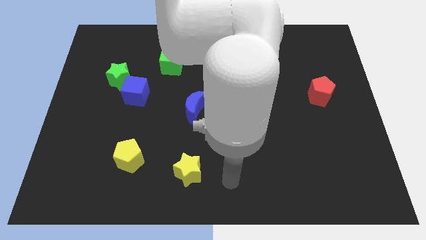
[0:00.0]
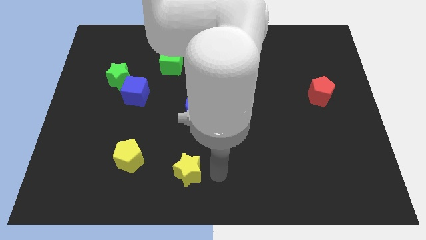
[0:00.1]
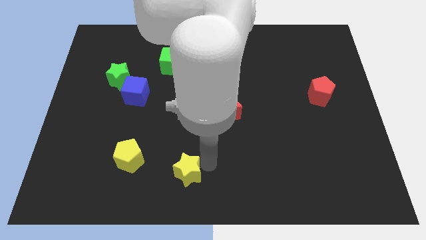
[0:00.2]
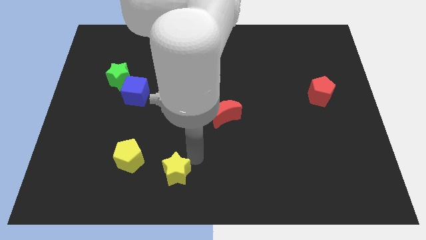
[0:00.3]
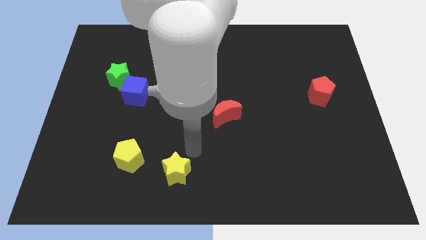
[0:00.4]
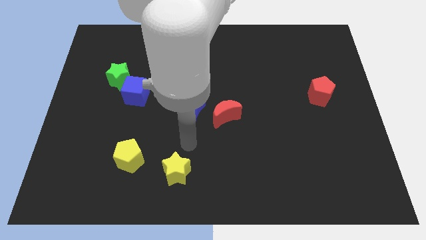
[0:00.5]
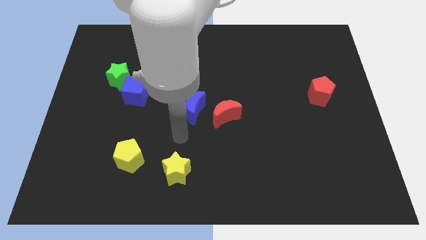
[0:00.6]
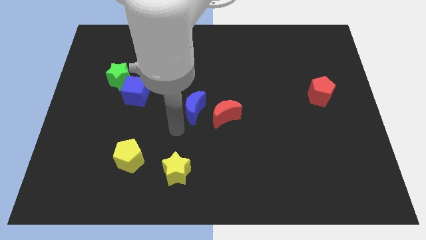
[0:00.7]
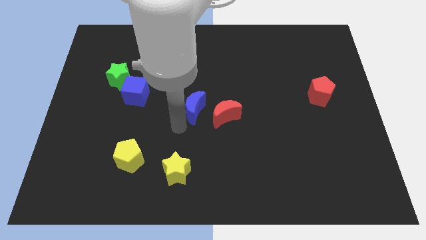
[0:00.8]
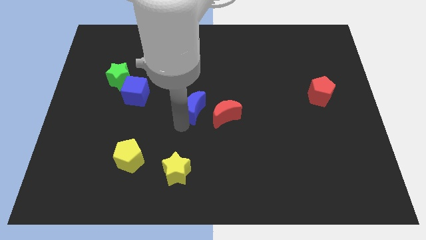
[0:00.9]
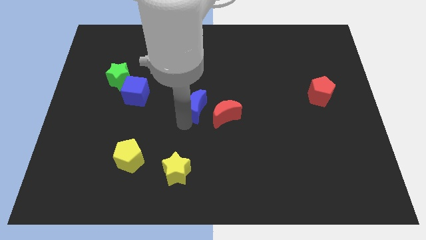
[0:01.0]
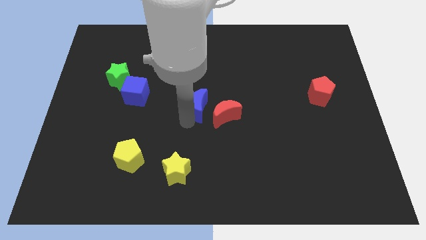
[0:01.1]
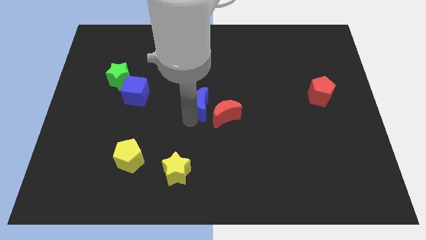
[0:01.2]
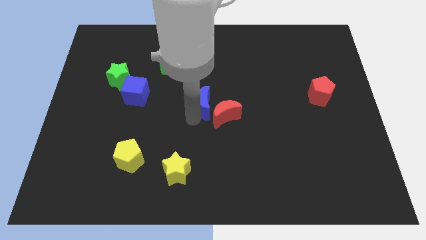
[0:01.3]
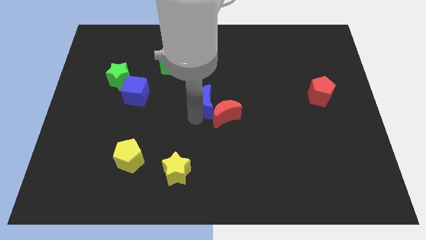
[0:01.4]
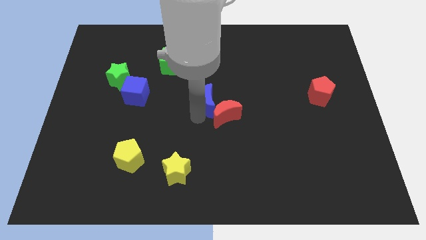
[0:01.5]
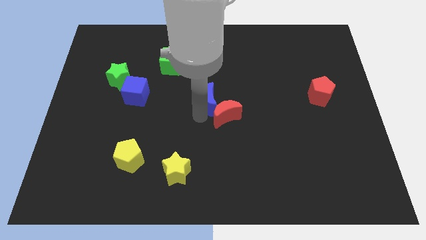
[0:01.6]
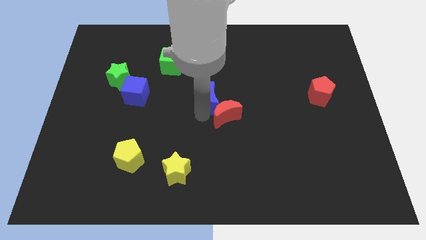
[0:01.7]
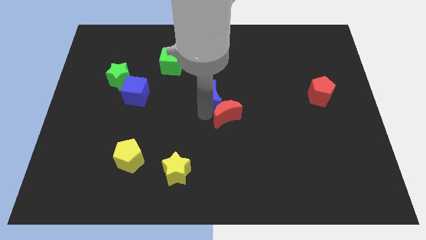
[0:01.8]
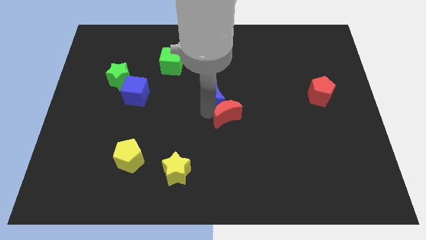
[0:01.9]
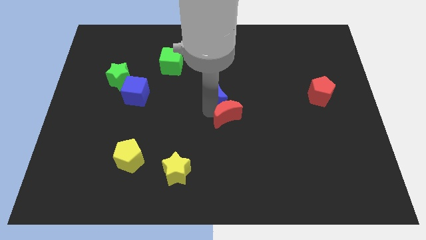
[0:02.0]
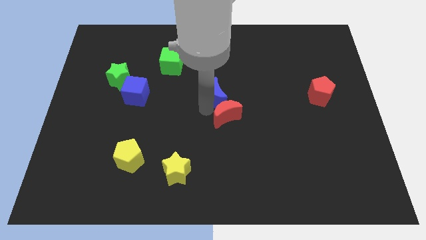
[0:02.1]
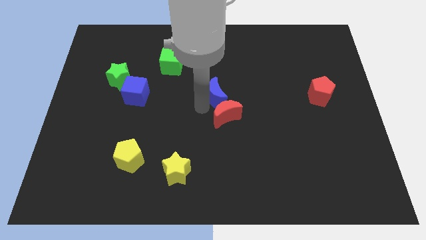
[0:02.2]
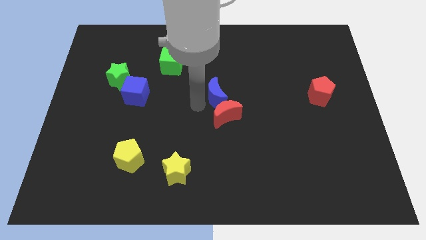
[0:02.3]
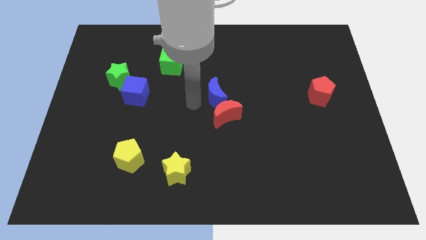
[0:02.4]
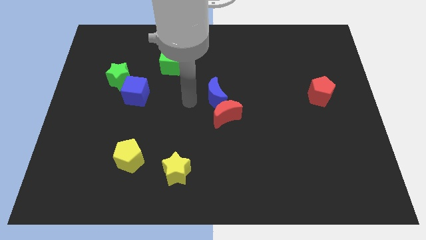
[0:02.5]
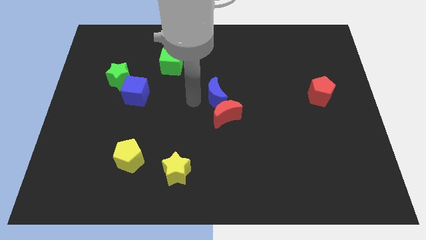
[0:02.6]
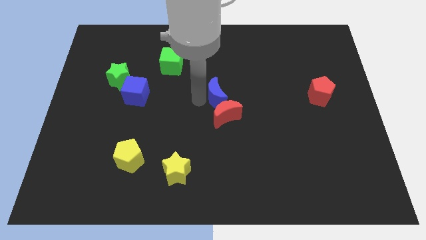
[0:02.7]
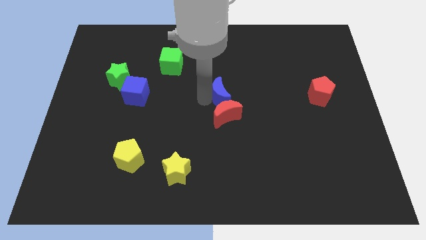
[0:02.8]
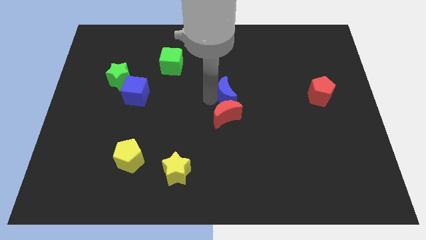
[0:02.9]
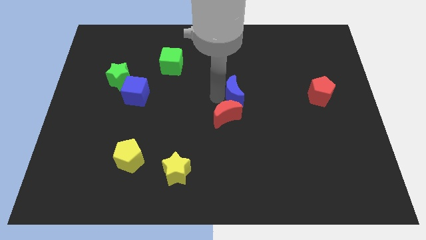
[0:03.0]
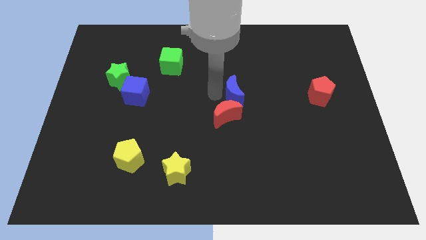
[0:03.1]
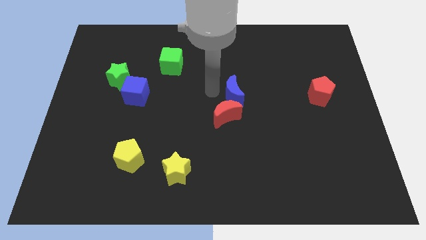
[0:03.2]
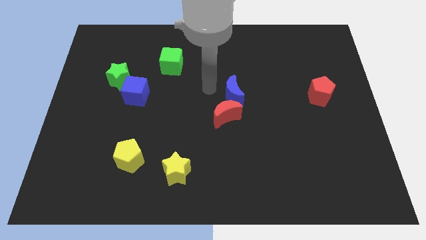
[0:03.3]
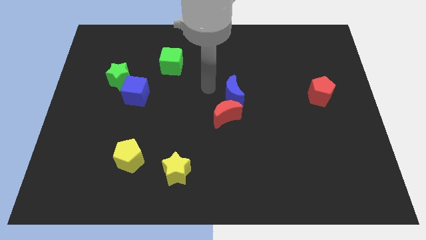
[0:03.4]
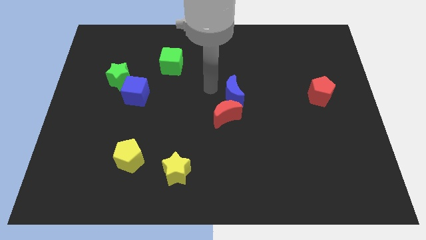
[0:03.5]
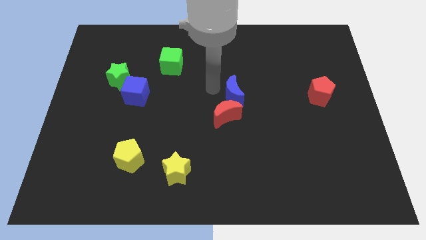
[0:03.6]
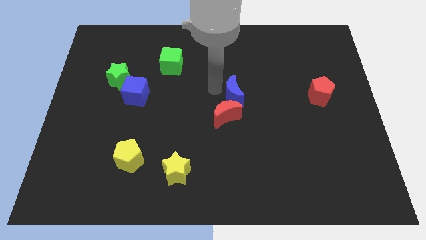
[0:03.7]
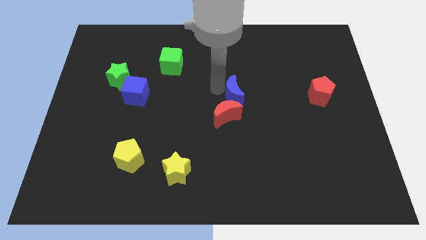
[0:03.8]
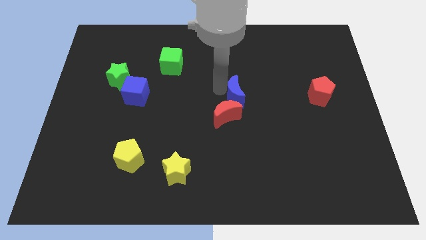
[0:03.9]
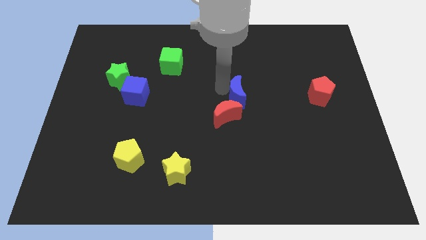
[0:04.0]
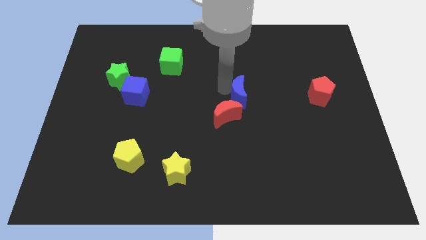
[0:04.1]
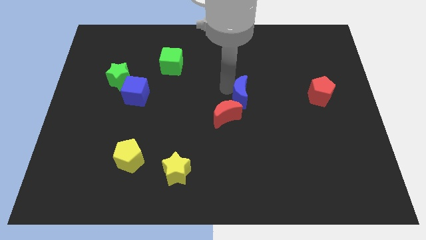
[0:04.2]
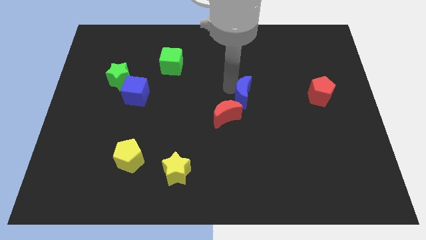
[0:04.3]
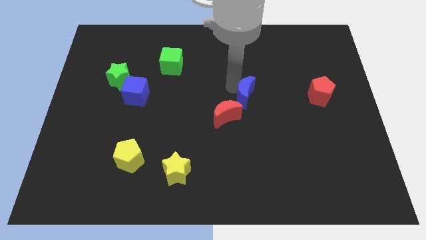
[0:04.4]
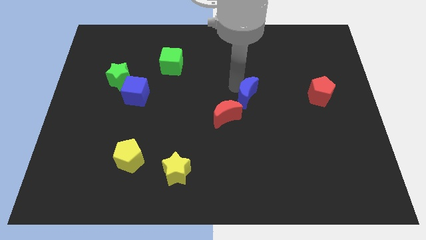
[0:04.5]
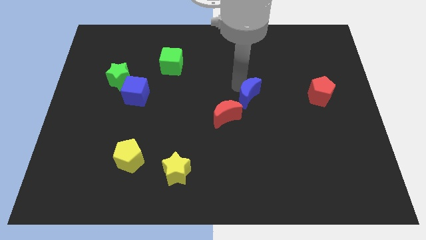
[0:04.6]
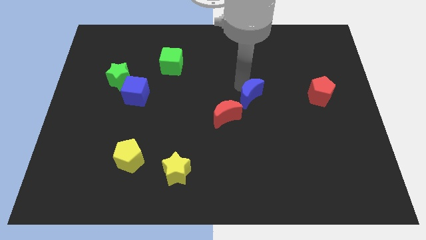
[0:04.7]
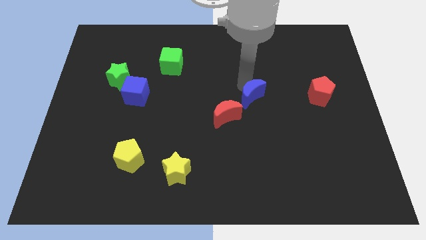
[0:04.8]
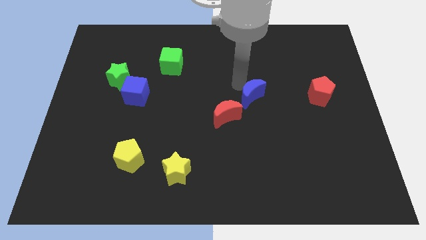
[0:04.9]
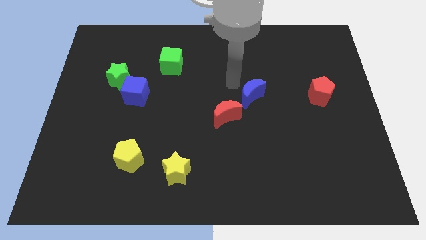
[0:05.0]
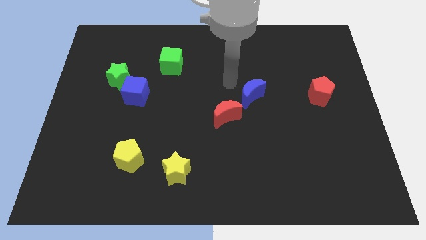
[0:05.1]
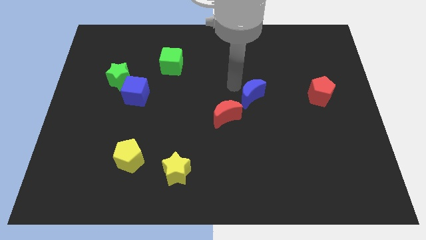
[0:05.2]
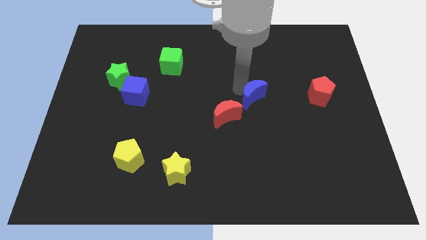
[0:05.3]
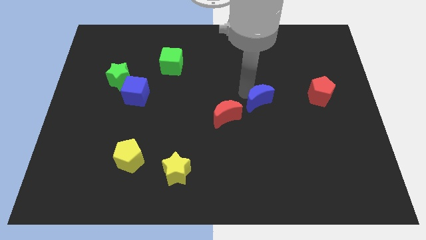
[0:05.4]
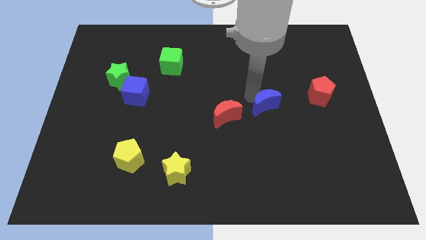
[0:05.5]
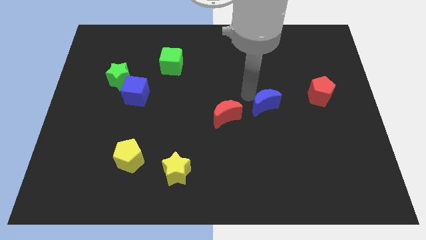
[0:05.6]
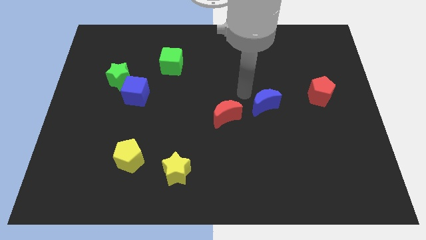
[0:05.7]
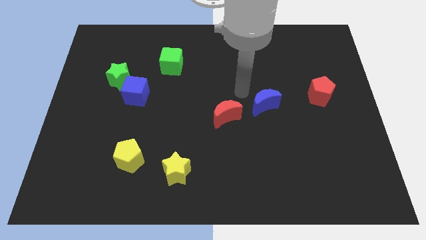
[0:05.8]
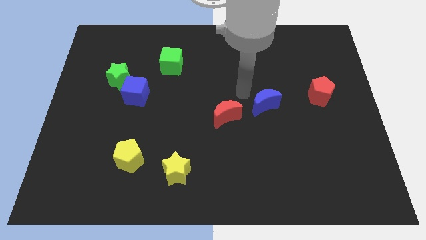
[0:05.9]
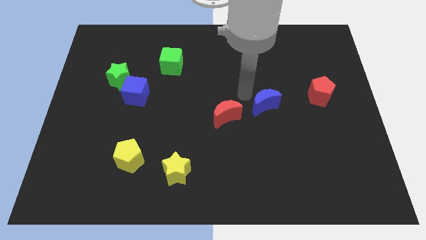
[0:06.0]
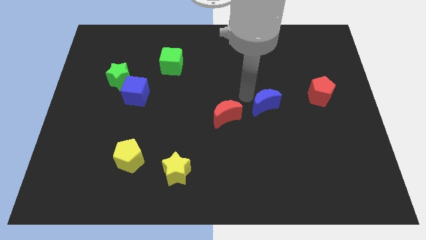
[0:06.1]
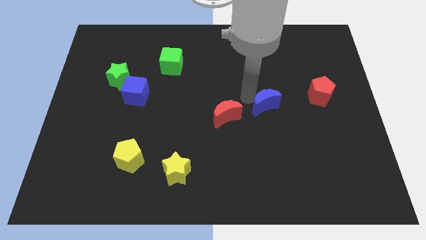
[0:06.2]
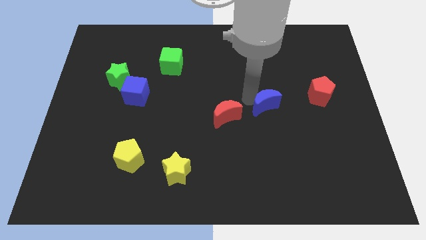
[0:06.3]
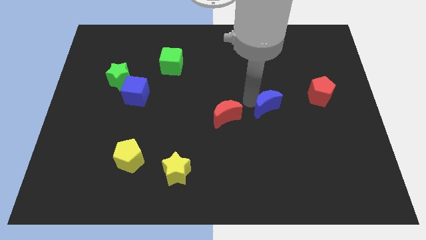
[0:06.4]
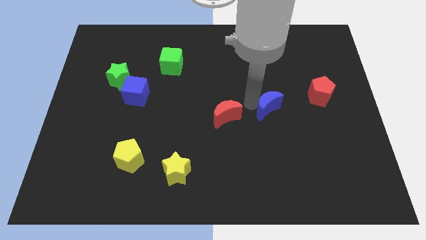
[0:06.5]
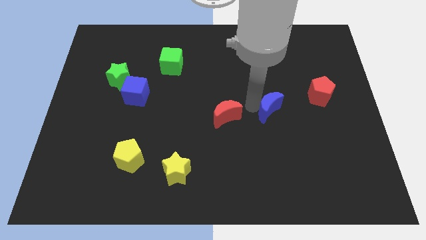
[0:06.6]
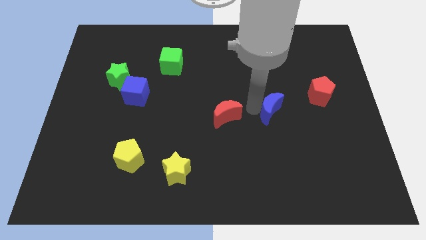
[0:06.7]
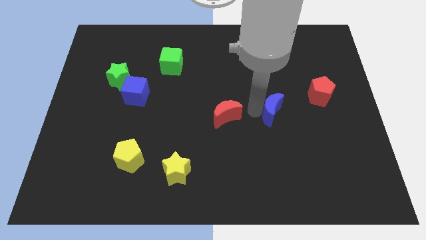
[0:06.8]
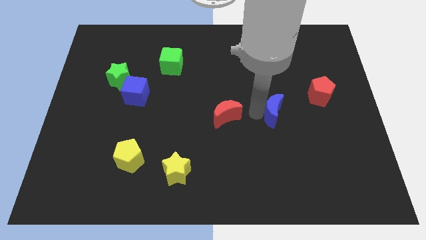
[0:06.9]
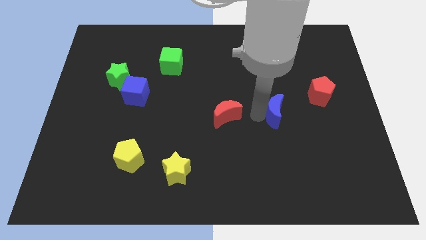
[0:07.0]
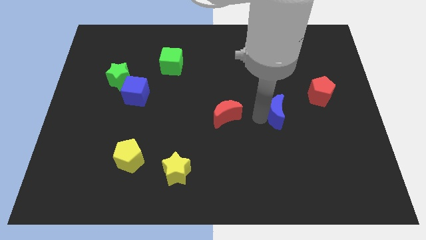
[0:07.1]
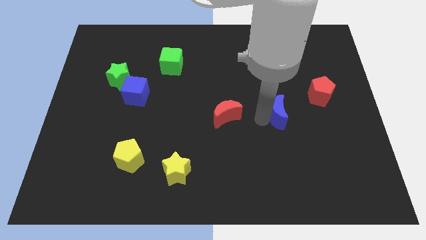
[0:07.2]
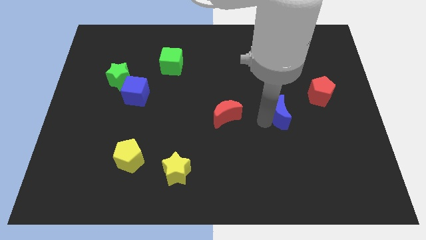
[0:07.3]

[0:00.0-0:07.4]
move the blue moon diagonally down and to the left of the red pentagon
